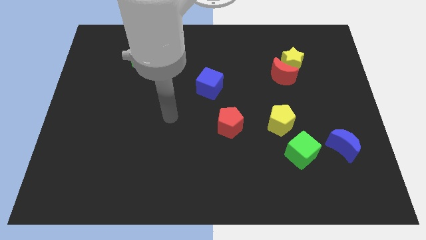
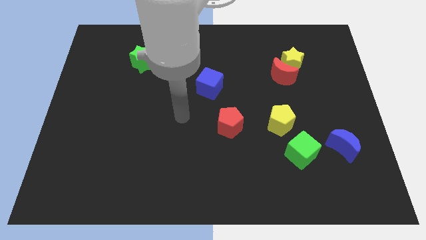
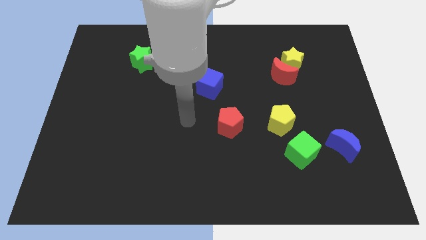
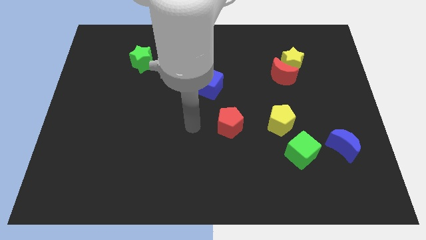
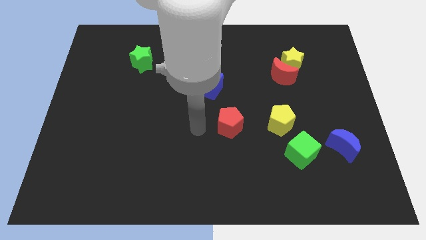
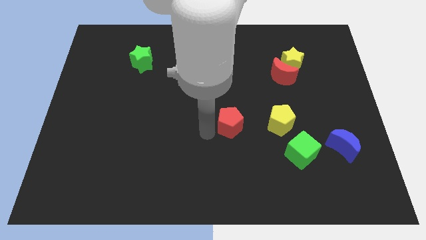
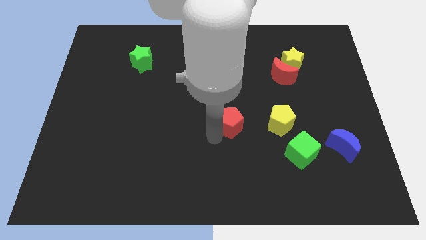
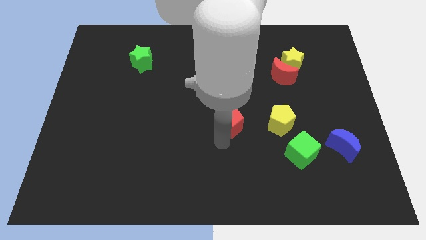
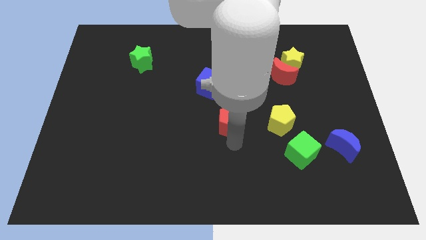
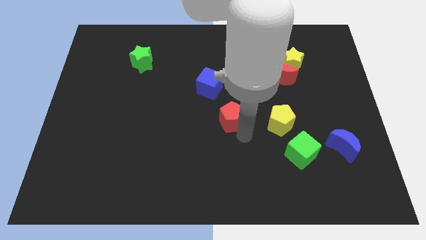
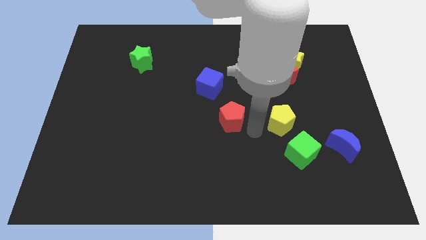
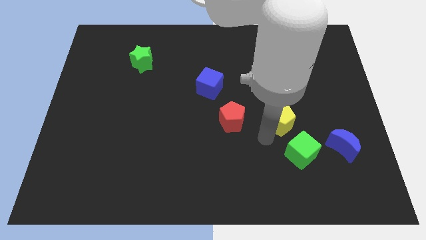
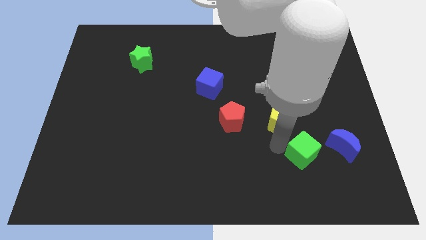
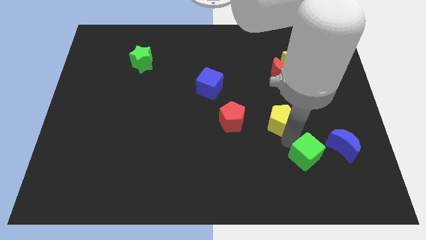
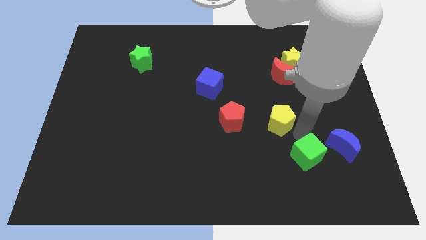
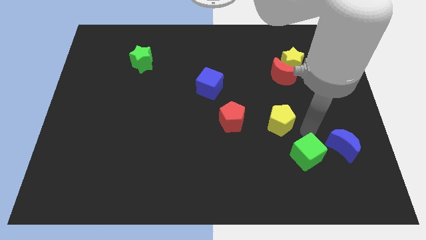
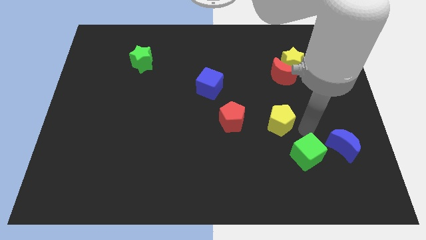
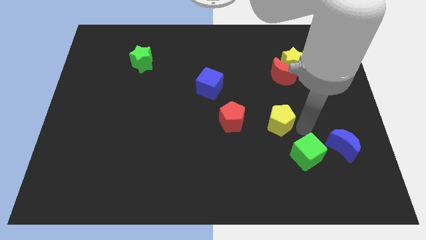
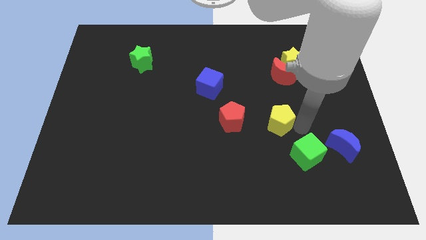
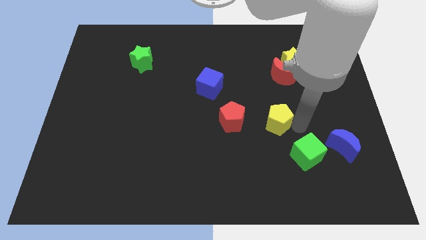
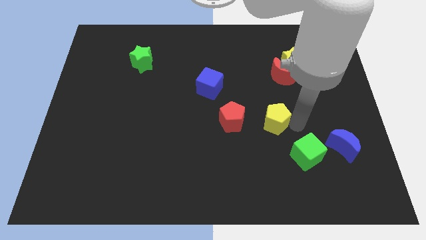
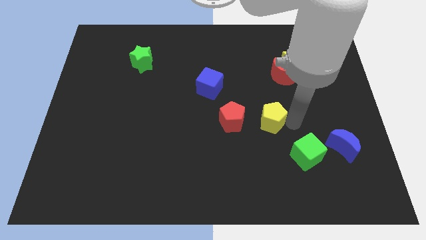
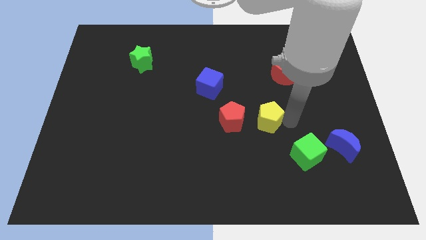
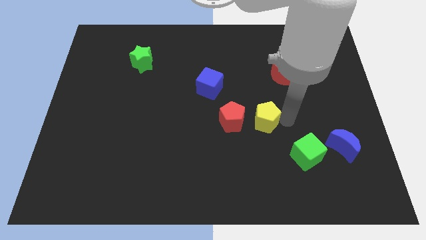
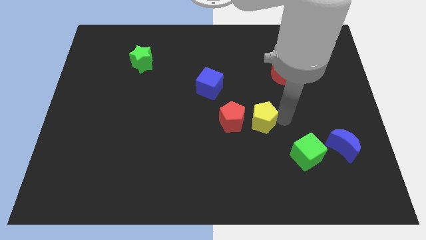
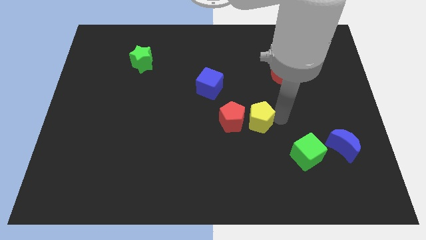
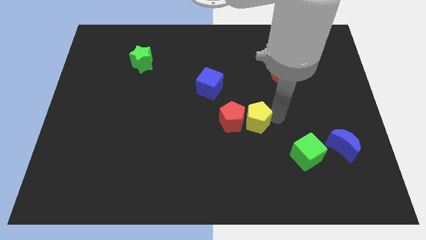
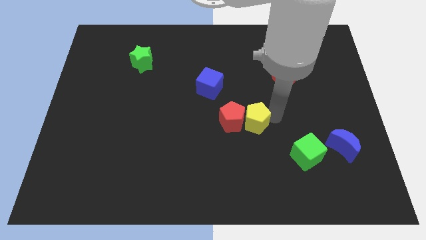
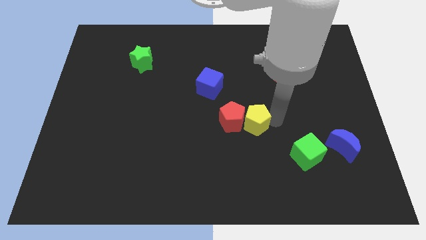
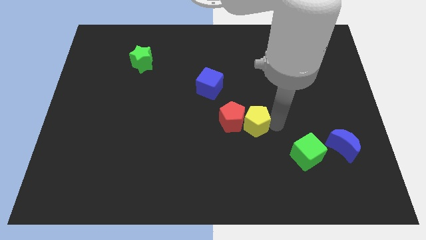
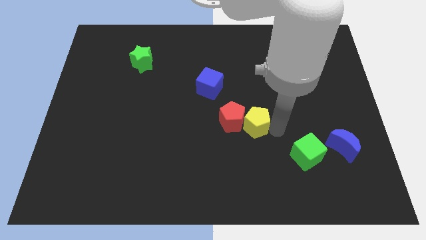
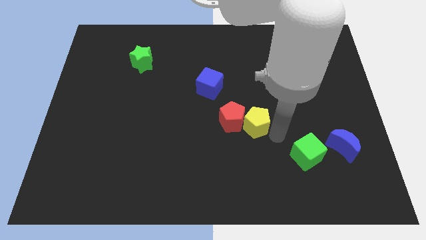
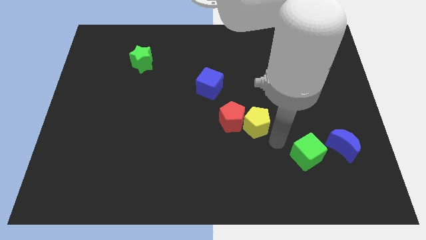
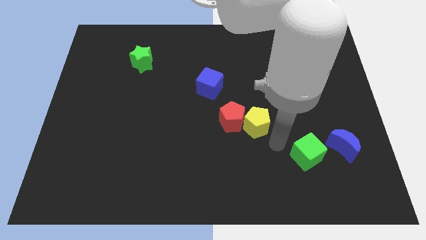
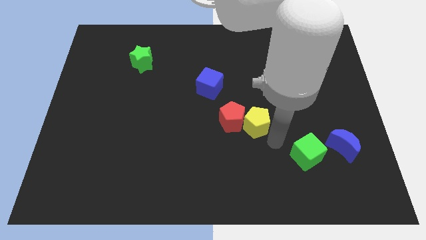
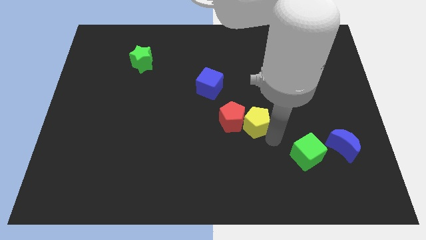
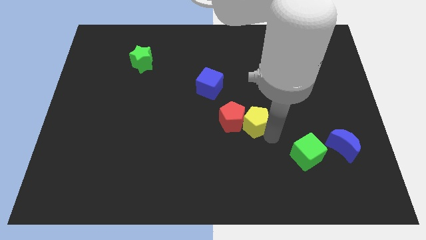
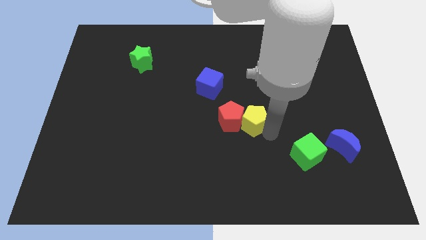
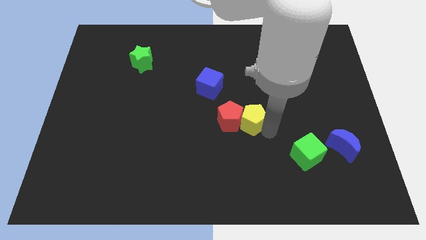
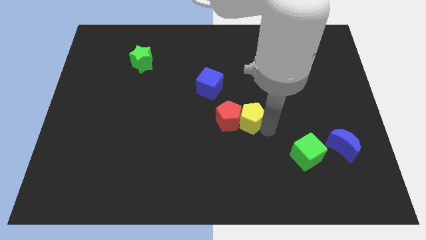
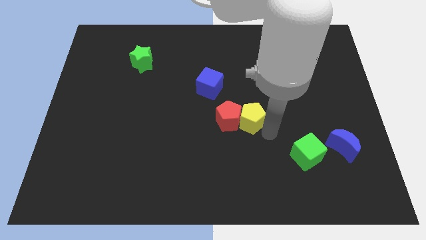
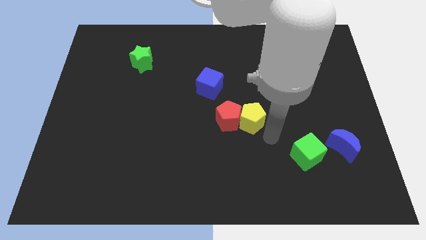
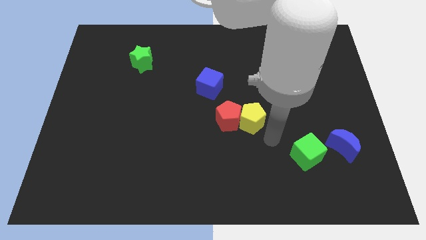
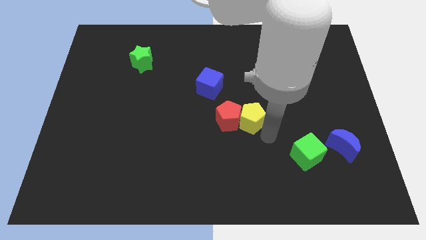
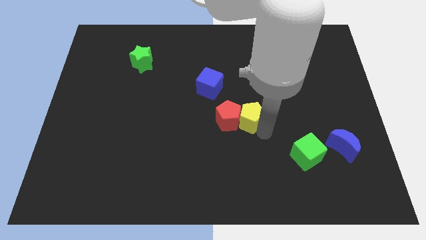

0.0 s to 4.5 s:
push the yellow pentagon to the left somewhat

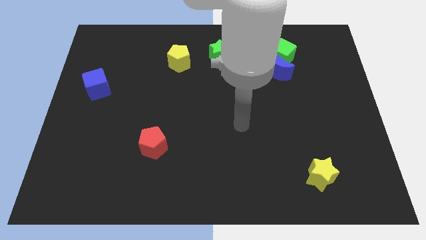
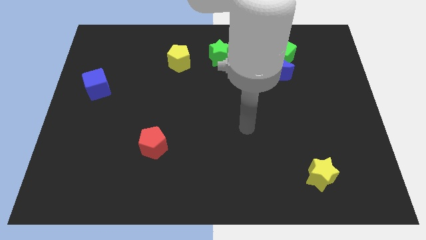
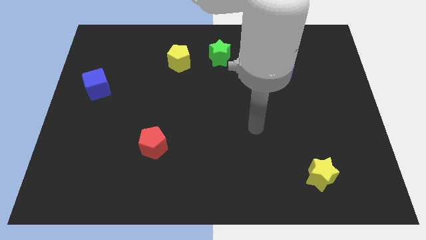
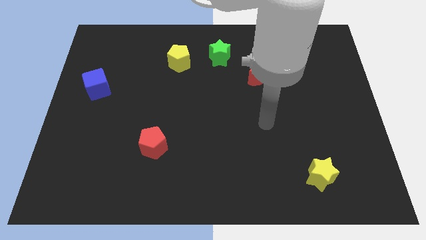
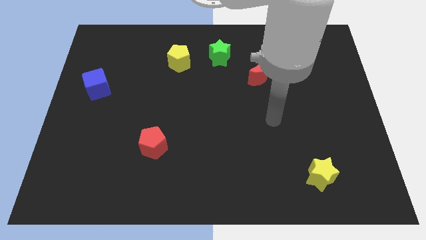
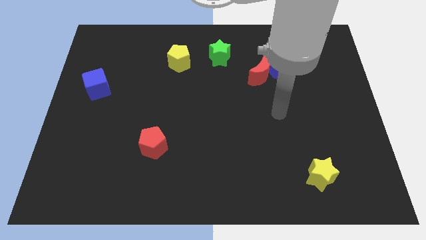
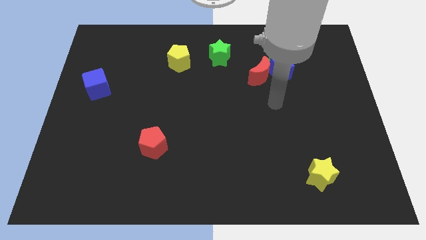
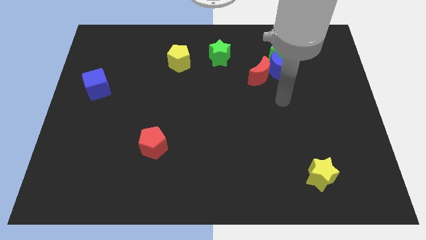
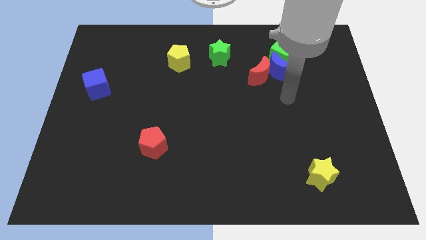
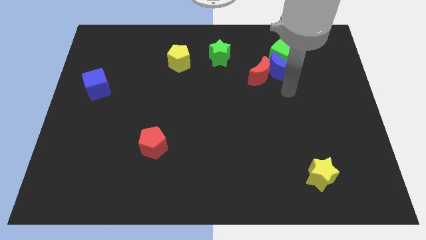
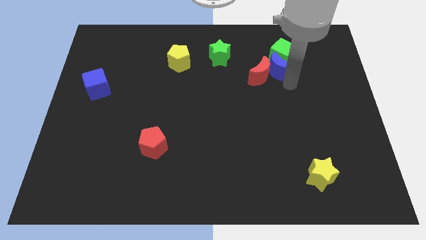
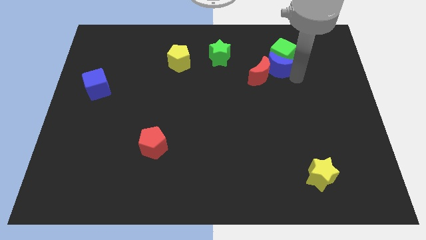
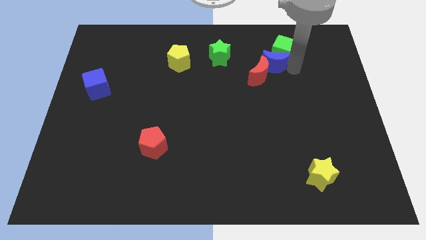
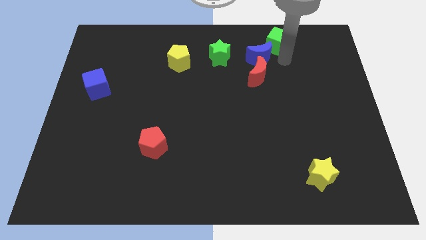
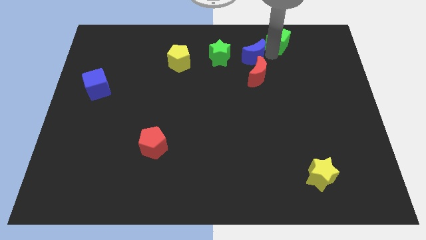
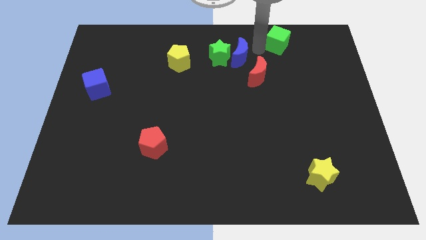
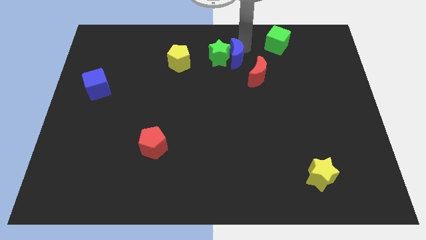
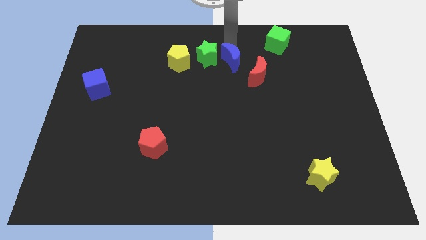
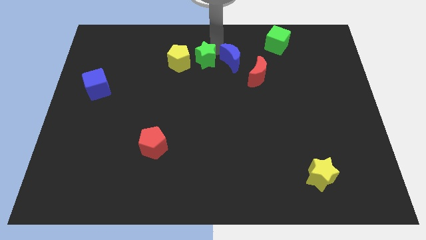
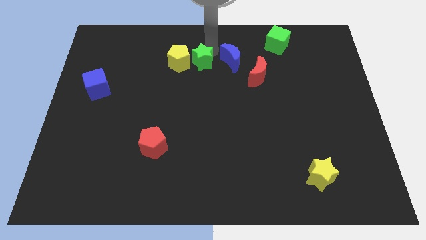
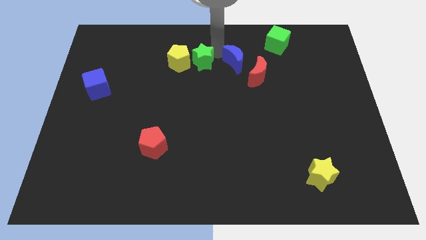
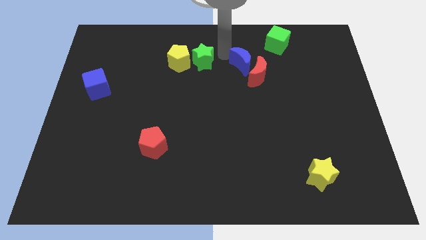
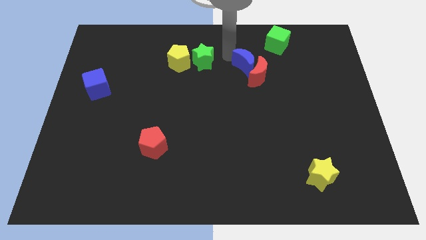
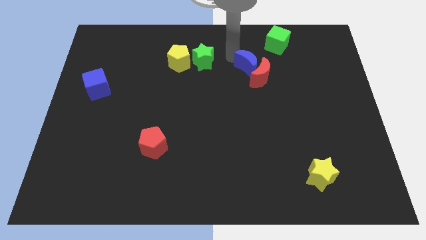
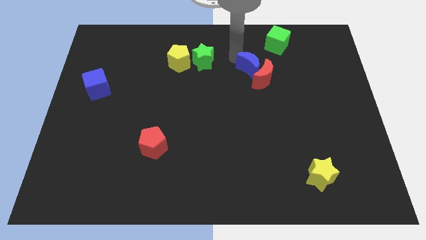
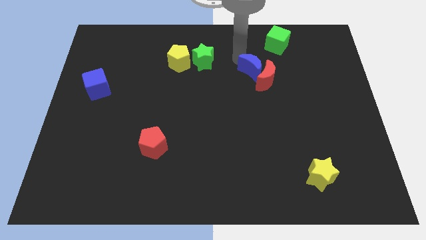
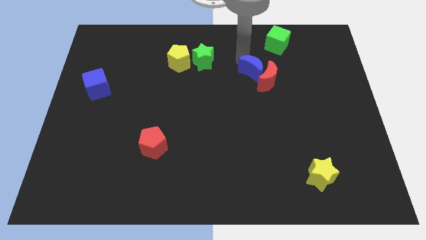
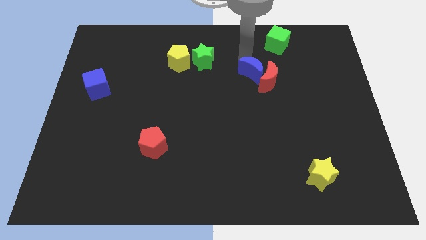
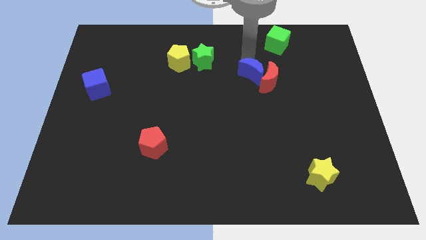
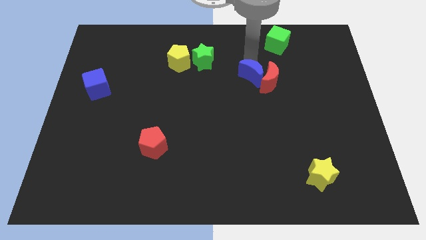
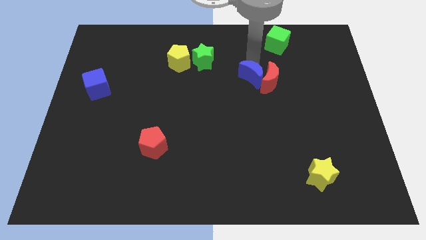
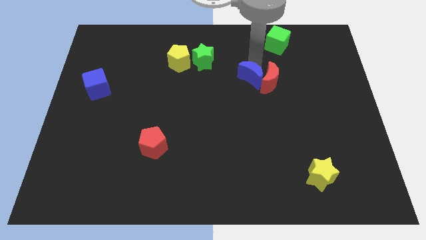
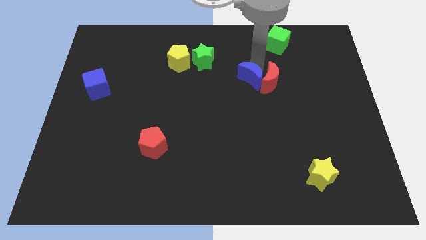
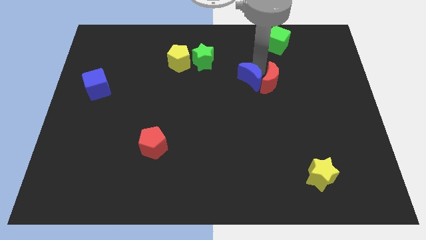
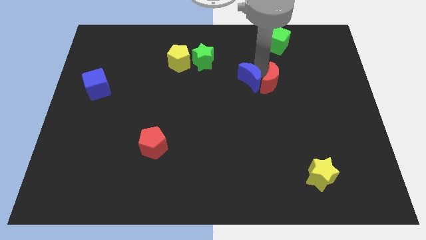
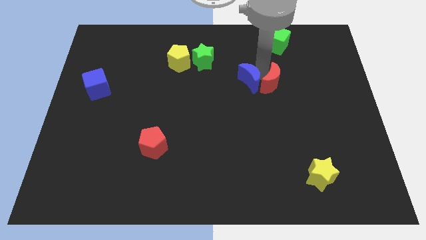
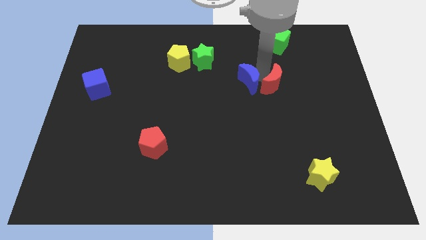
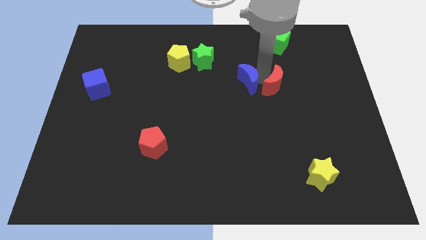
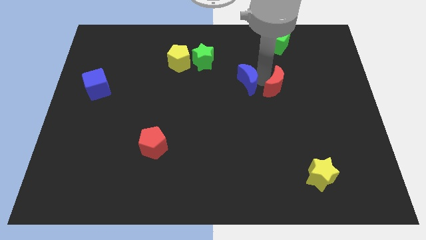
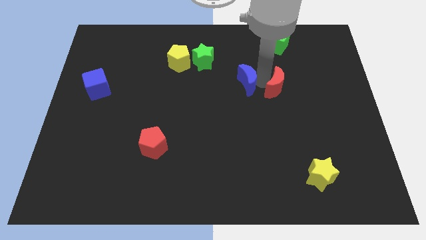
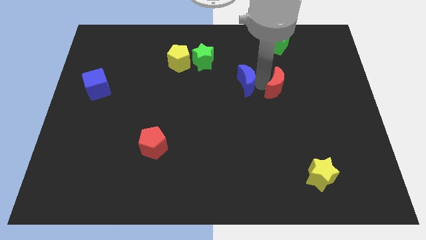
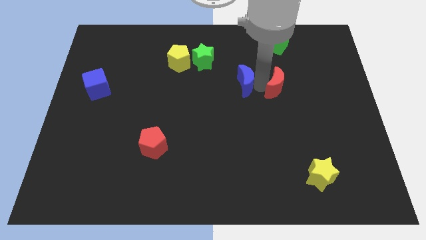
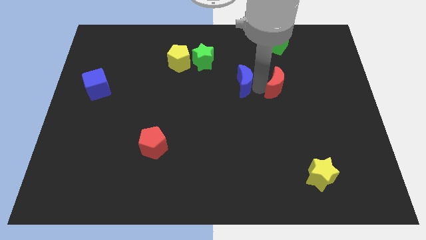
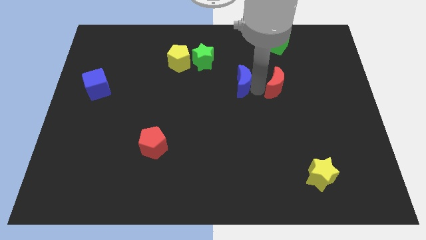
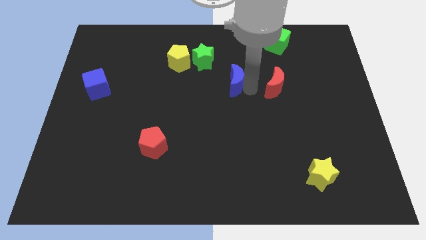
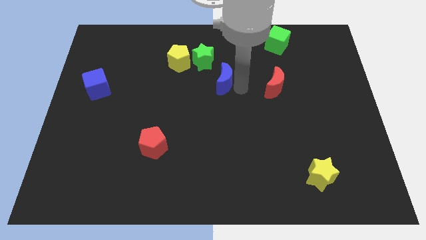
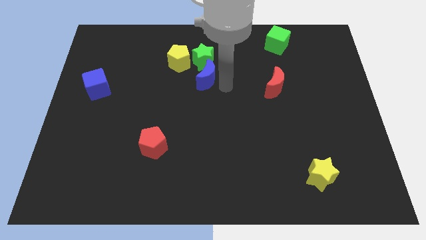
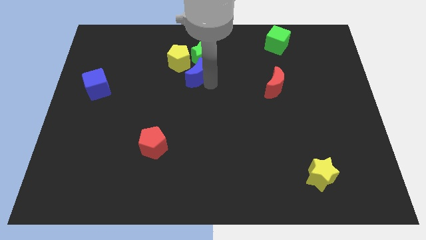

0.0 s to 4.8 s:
move the blue moon left
